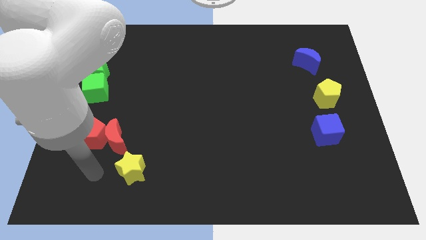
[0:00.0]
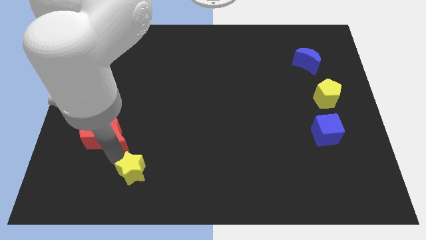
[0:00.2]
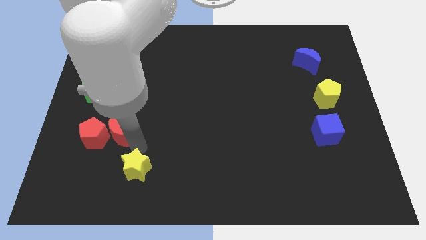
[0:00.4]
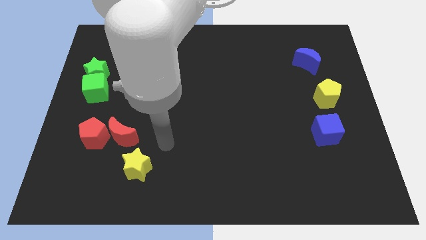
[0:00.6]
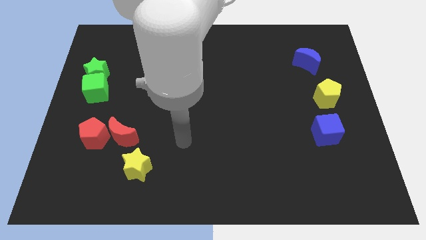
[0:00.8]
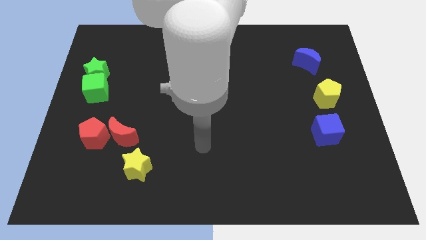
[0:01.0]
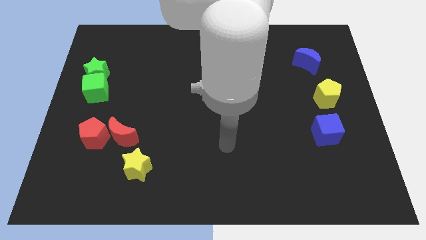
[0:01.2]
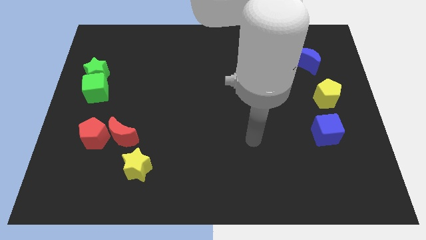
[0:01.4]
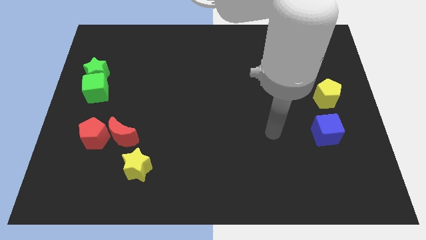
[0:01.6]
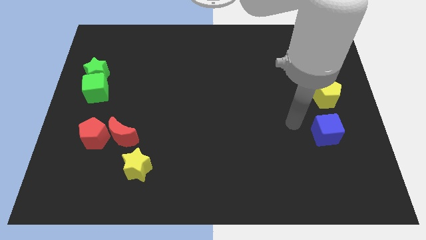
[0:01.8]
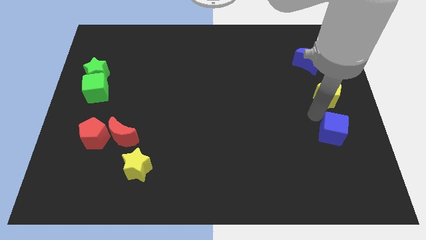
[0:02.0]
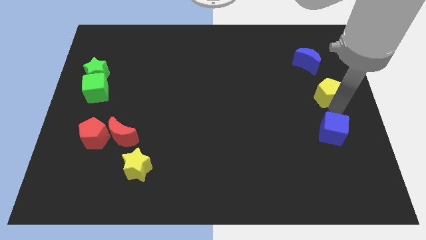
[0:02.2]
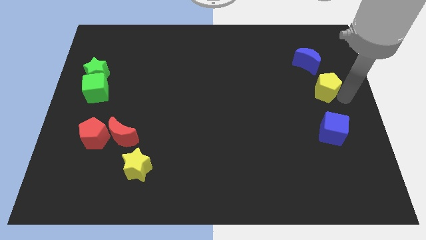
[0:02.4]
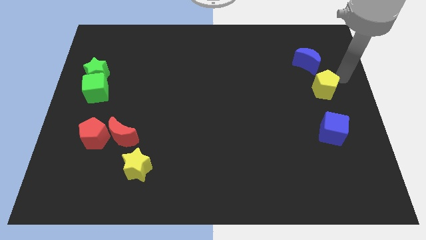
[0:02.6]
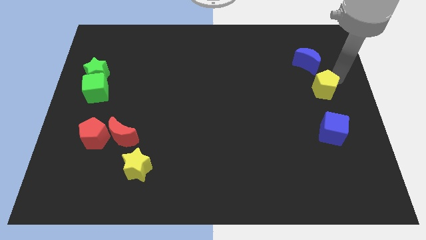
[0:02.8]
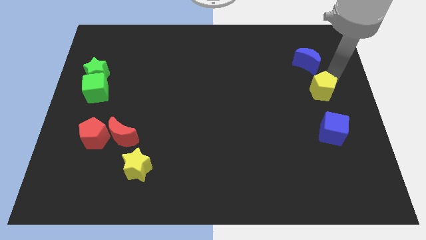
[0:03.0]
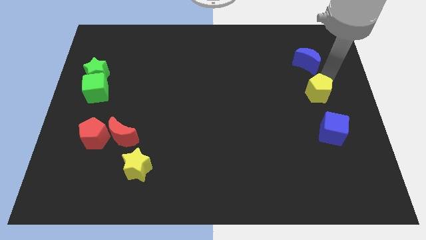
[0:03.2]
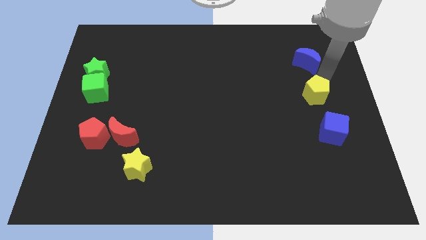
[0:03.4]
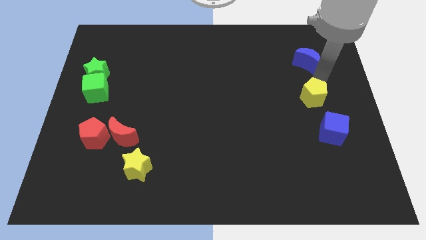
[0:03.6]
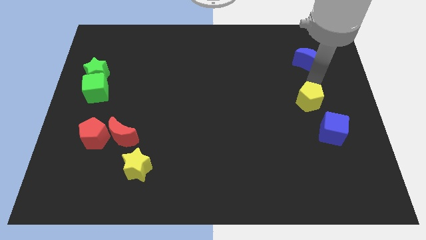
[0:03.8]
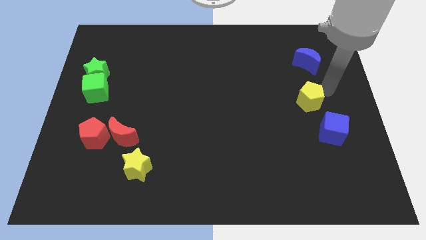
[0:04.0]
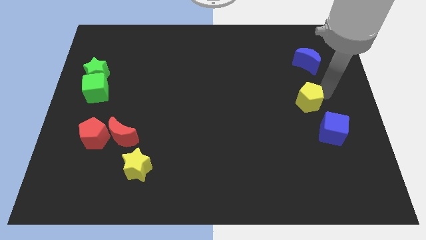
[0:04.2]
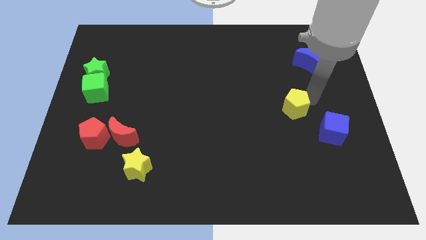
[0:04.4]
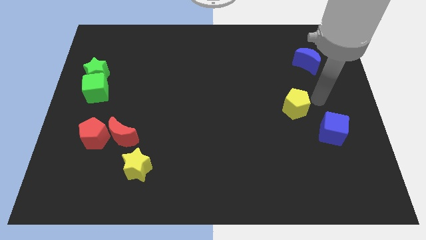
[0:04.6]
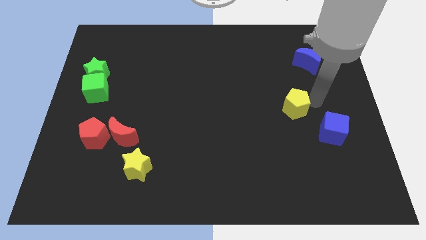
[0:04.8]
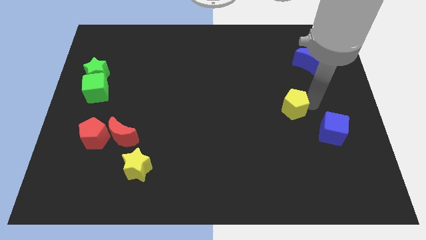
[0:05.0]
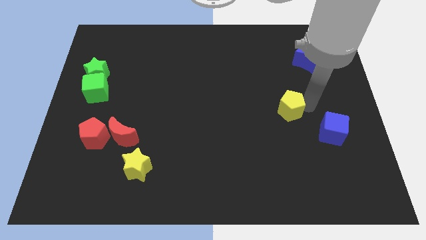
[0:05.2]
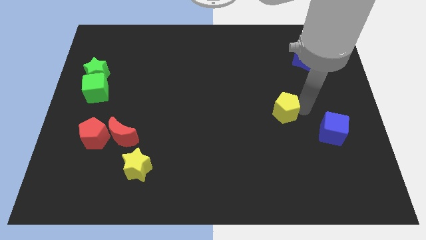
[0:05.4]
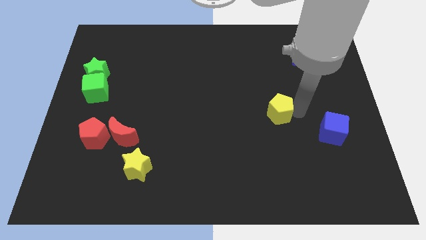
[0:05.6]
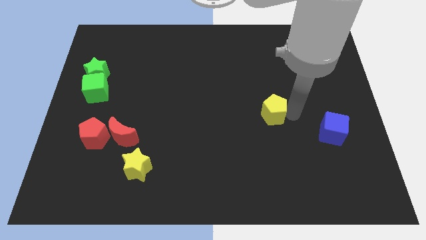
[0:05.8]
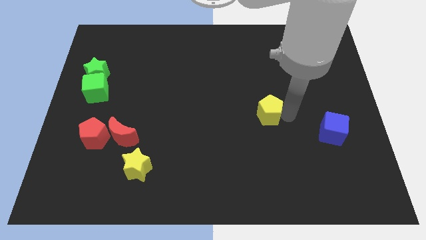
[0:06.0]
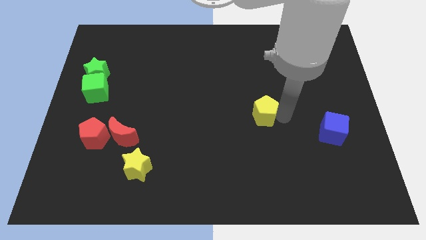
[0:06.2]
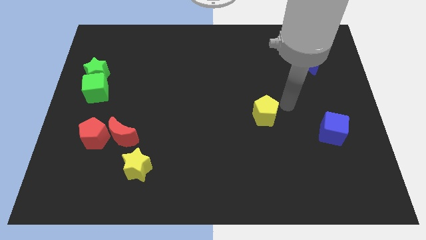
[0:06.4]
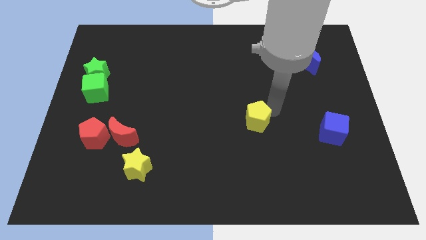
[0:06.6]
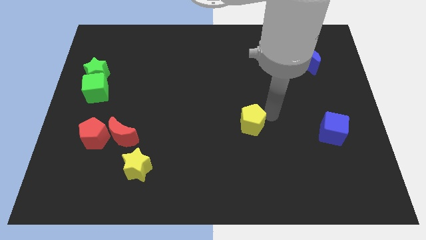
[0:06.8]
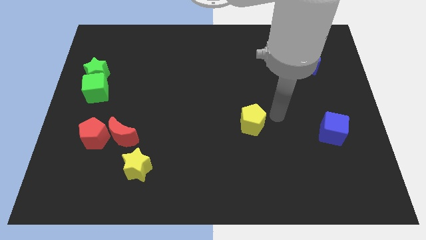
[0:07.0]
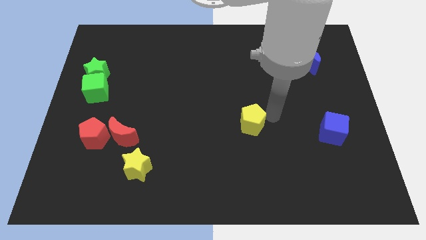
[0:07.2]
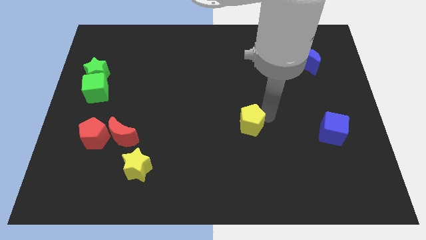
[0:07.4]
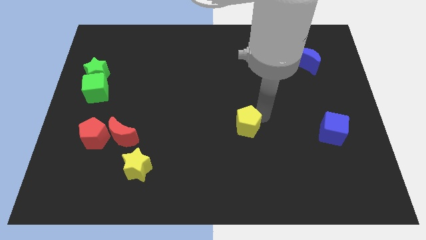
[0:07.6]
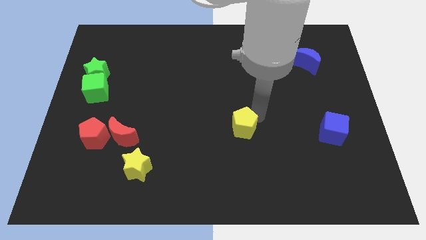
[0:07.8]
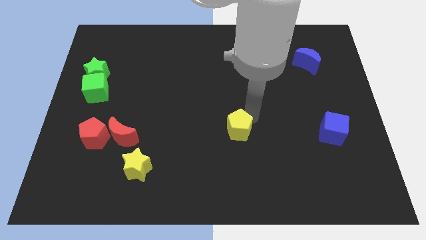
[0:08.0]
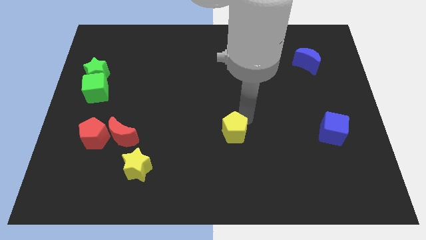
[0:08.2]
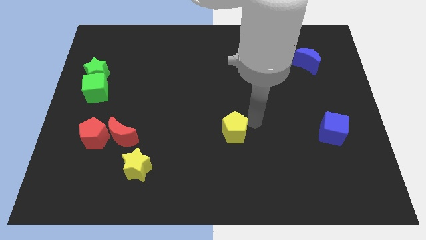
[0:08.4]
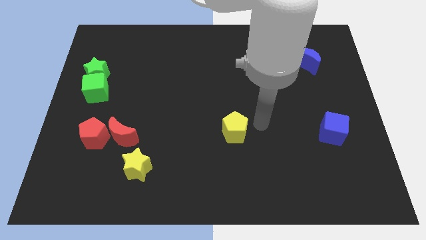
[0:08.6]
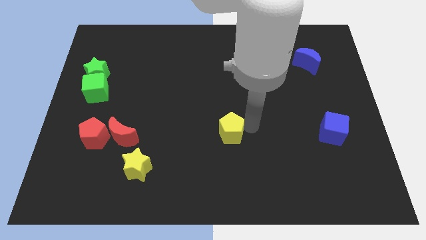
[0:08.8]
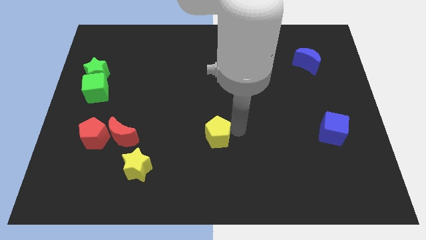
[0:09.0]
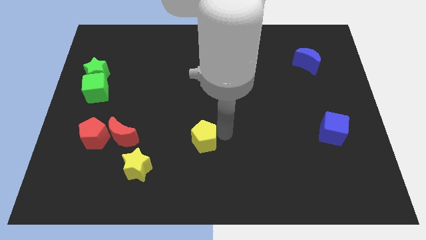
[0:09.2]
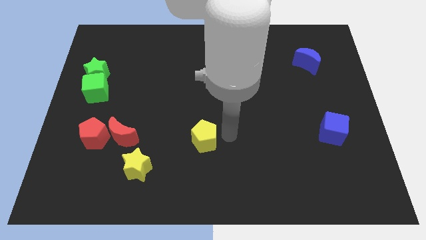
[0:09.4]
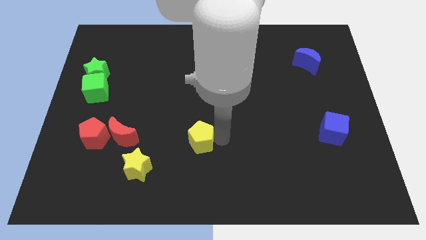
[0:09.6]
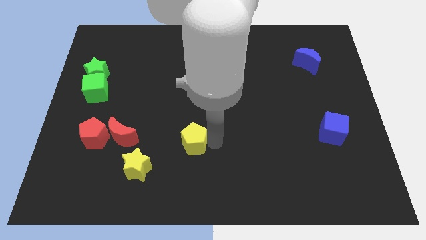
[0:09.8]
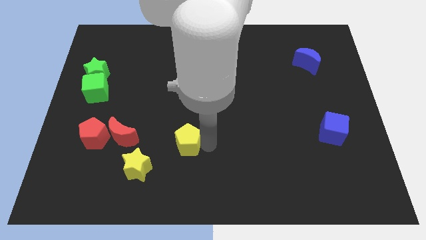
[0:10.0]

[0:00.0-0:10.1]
slide the yellow pentagon to the top right of the yellow star

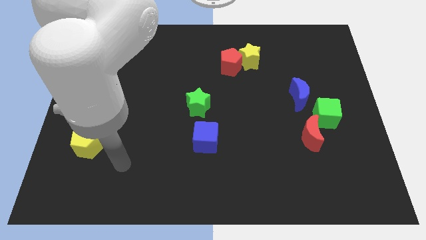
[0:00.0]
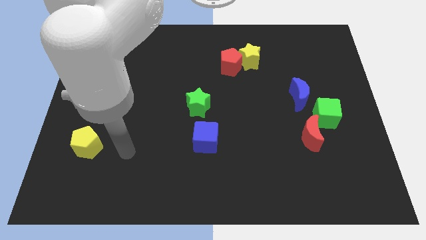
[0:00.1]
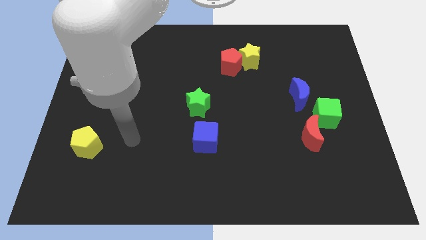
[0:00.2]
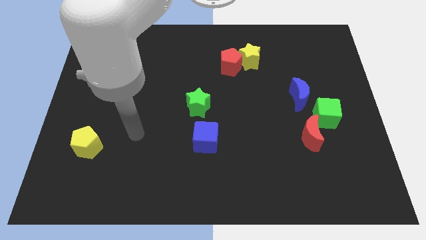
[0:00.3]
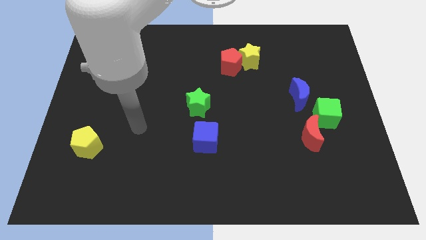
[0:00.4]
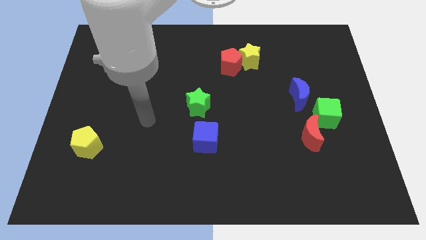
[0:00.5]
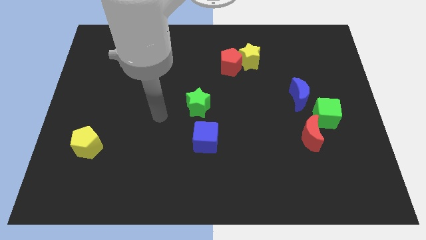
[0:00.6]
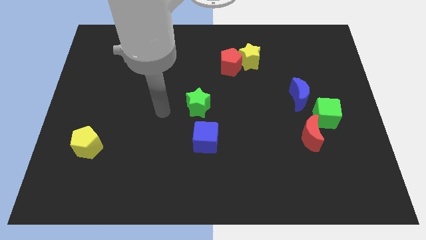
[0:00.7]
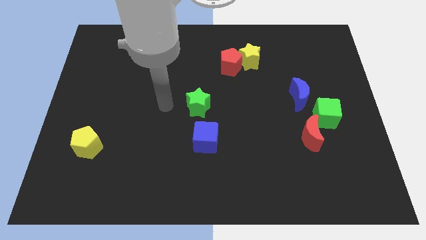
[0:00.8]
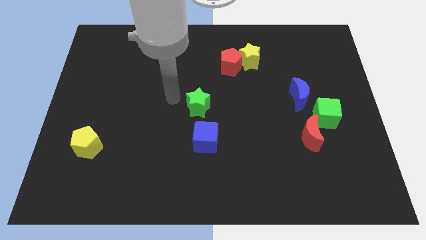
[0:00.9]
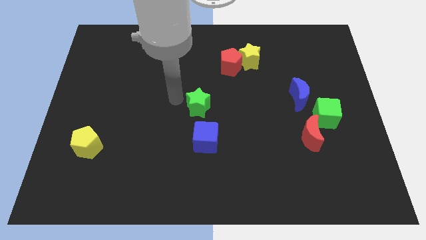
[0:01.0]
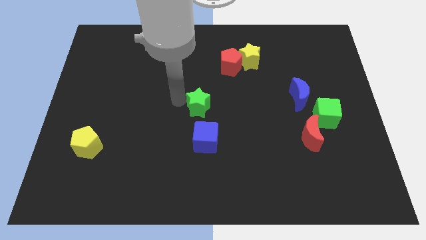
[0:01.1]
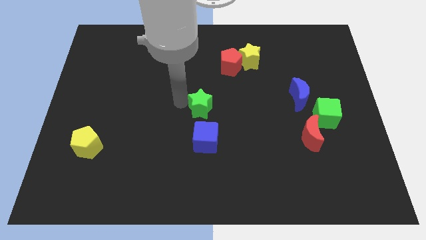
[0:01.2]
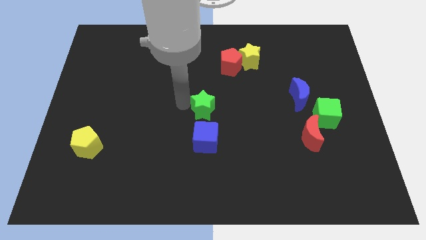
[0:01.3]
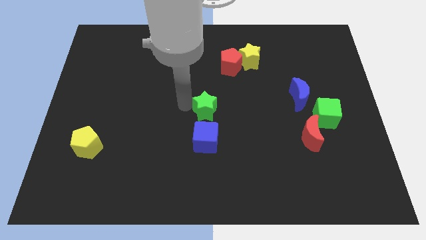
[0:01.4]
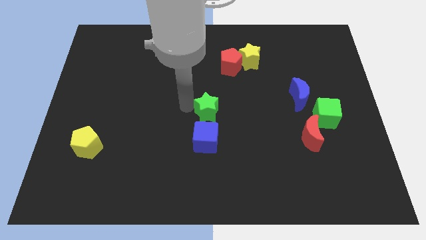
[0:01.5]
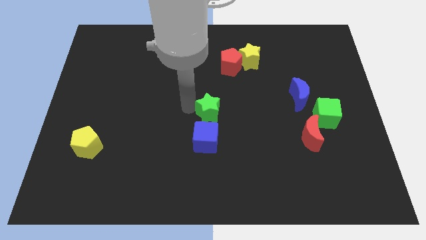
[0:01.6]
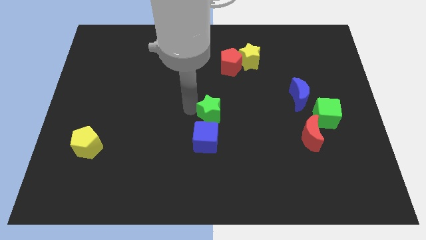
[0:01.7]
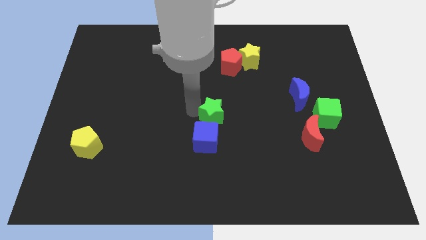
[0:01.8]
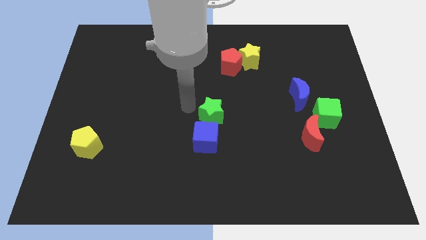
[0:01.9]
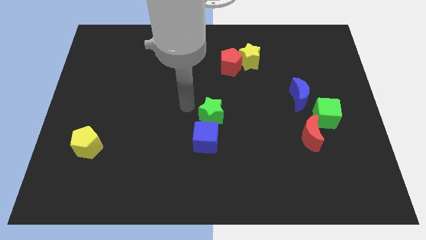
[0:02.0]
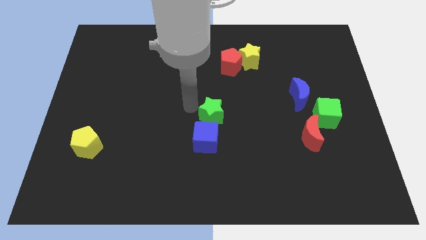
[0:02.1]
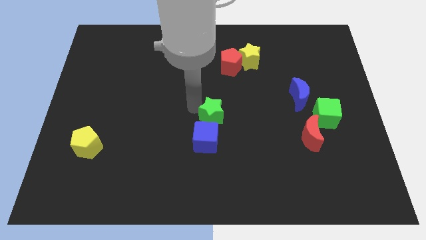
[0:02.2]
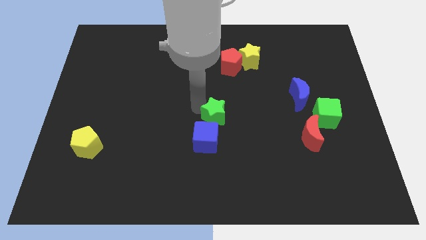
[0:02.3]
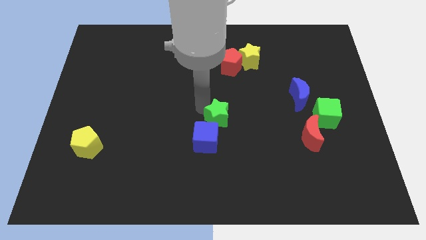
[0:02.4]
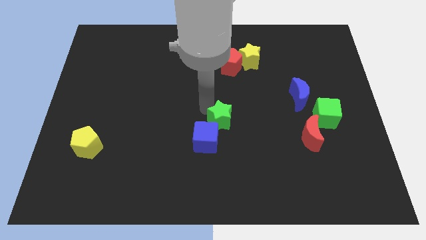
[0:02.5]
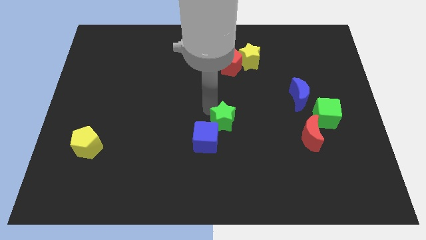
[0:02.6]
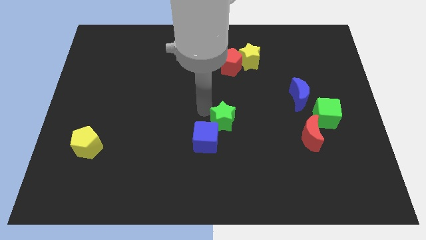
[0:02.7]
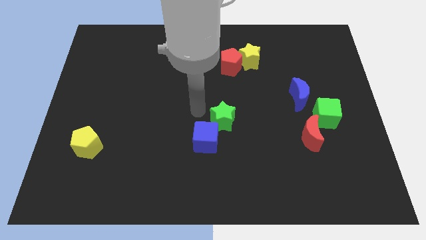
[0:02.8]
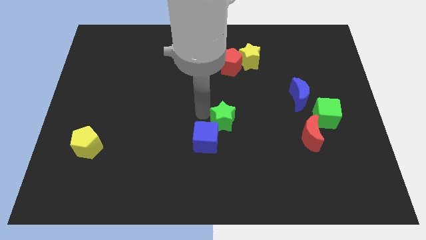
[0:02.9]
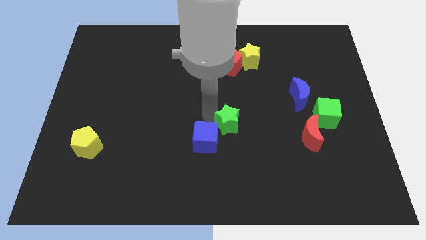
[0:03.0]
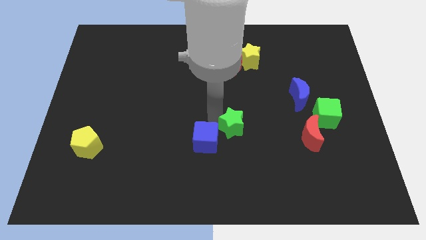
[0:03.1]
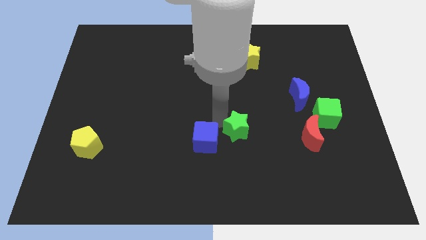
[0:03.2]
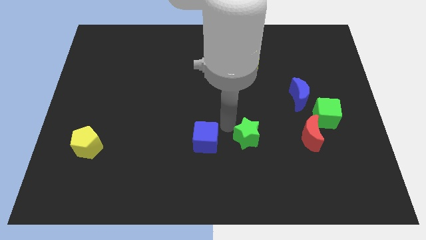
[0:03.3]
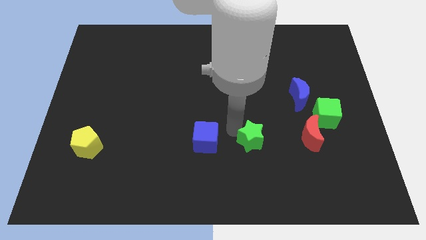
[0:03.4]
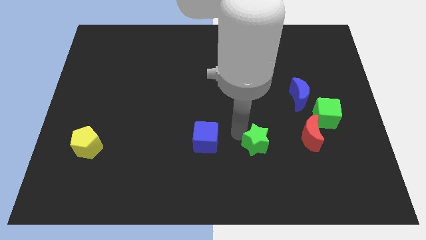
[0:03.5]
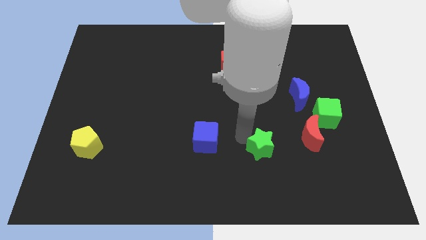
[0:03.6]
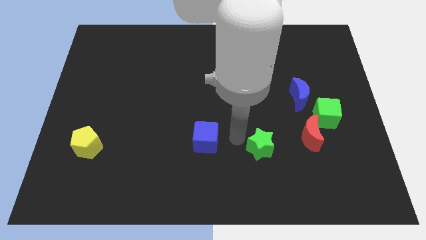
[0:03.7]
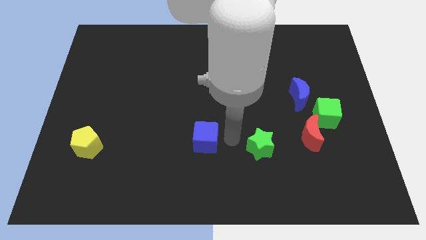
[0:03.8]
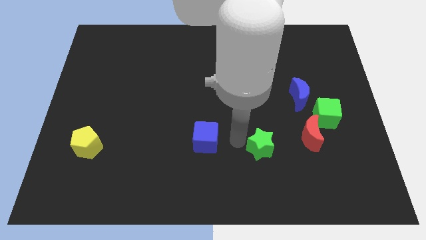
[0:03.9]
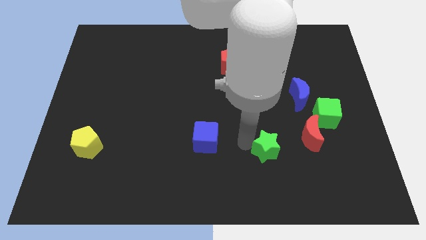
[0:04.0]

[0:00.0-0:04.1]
put the green star to the bottom left of the red moon
